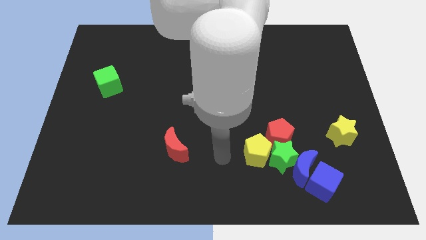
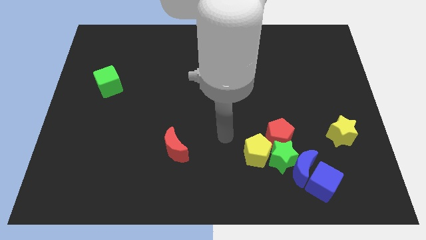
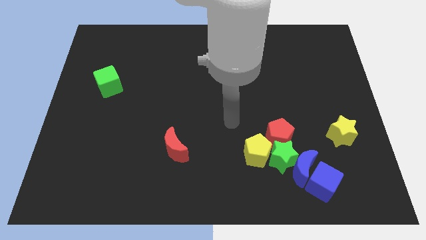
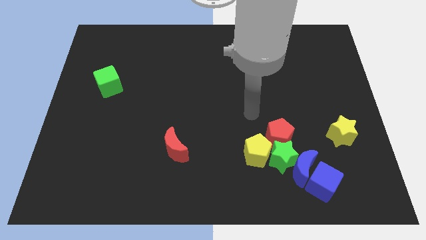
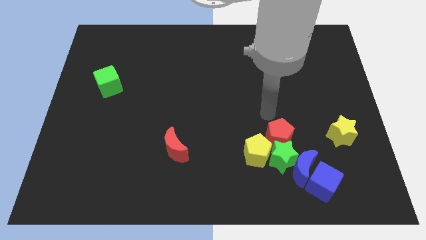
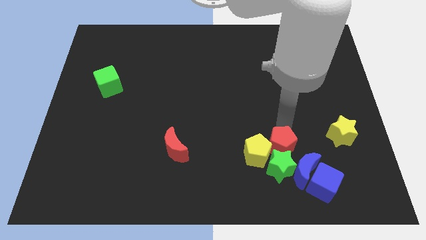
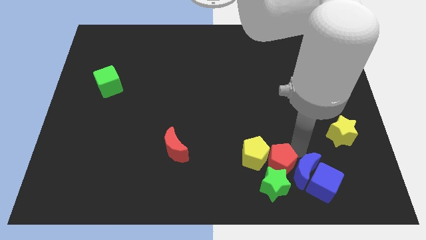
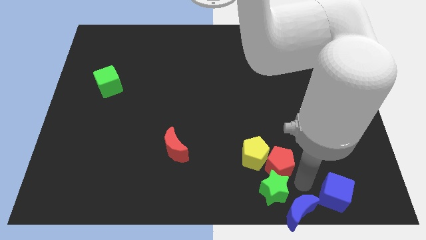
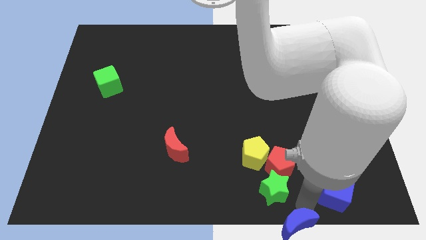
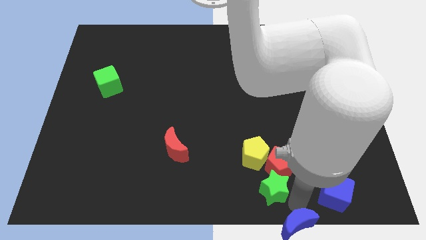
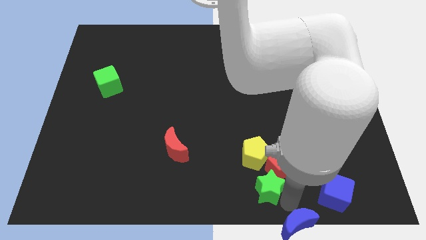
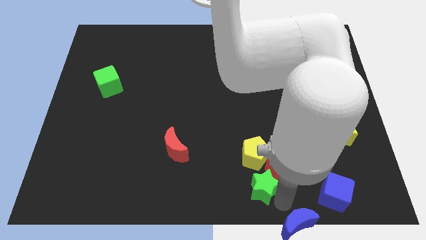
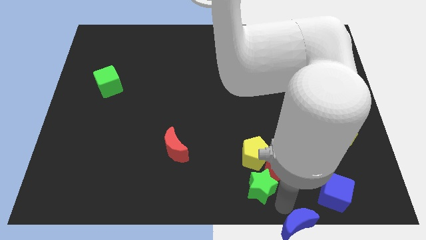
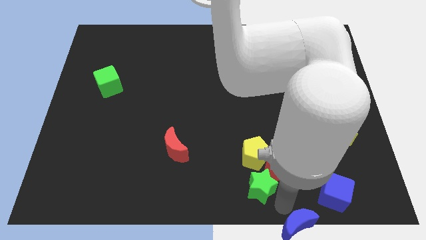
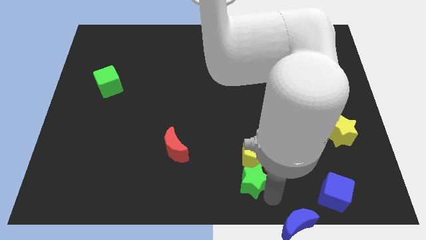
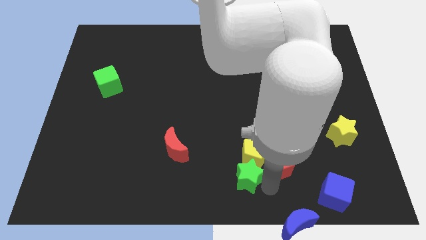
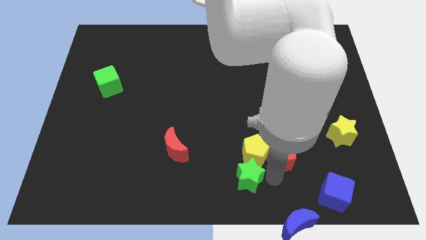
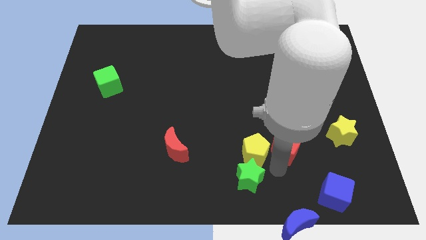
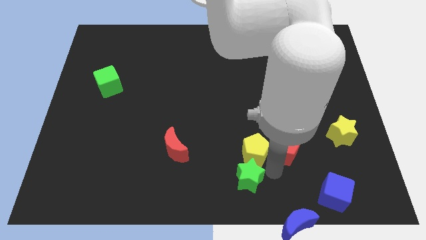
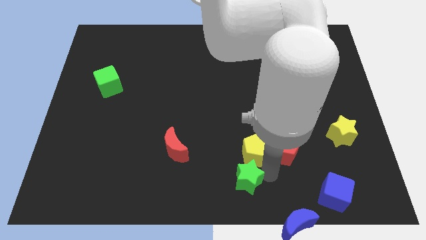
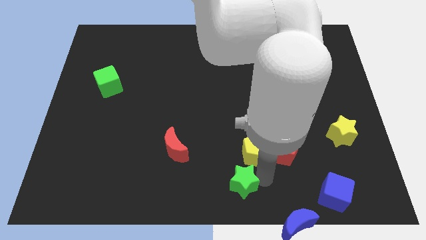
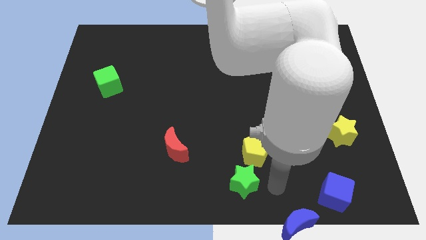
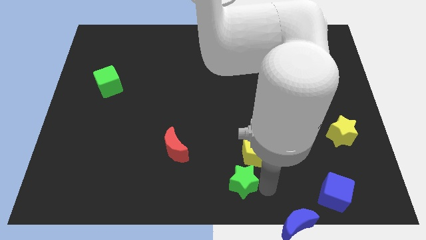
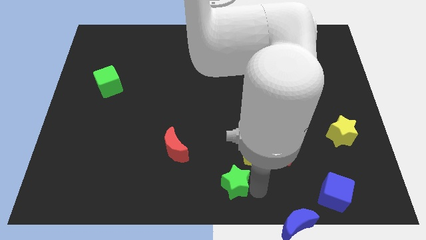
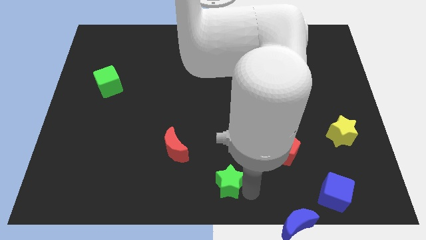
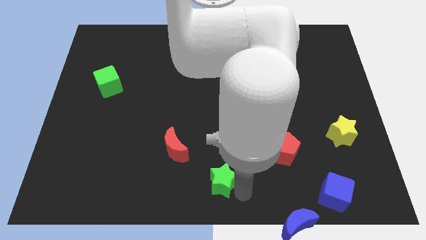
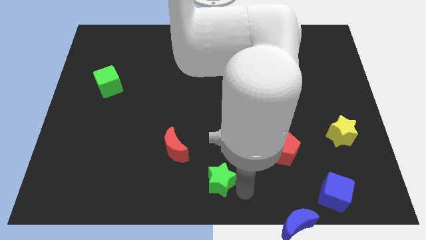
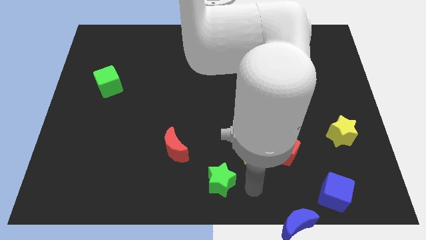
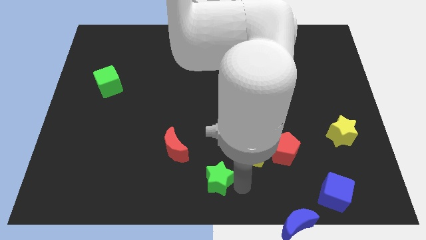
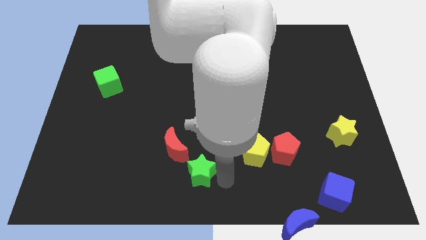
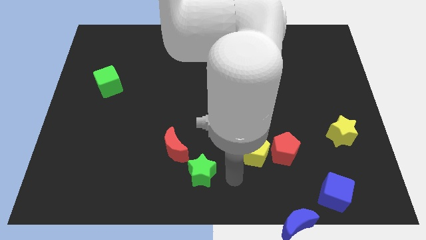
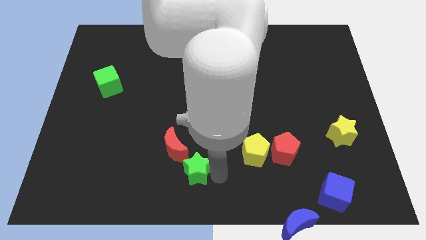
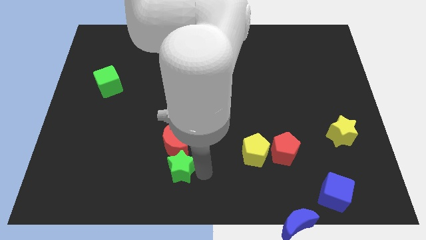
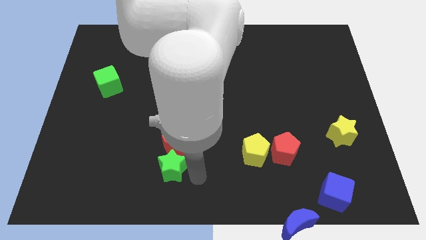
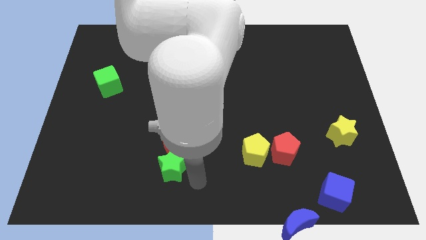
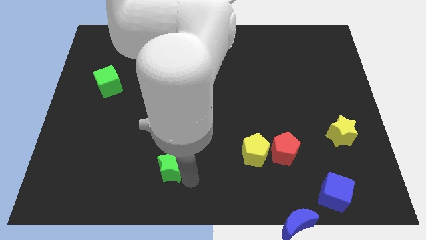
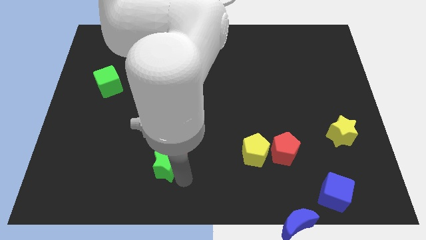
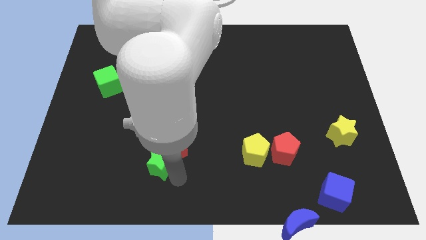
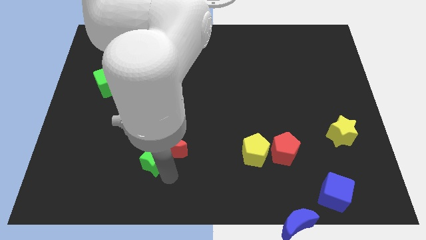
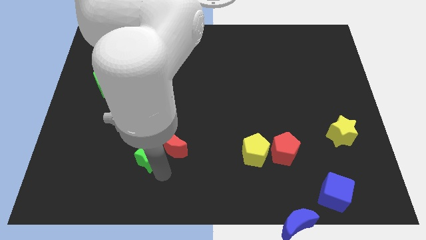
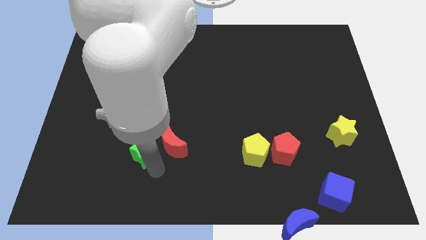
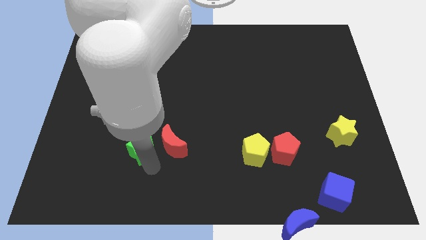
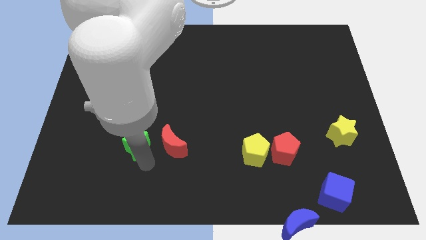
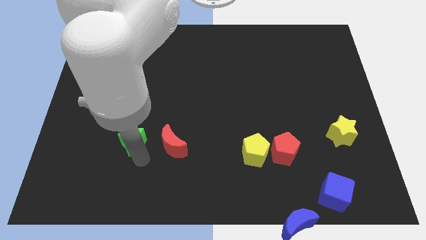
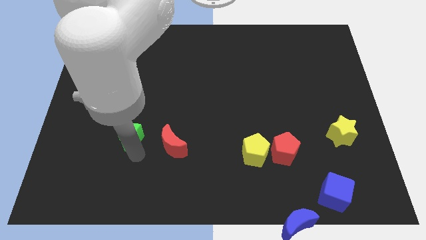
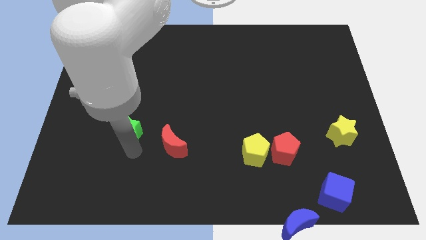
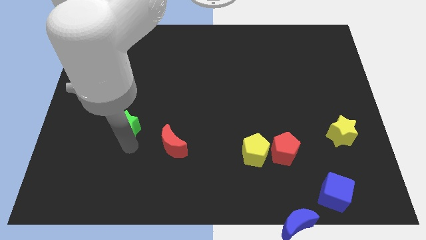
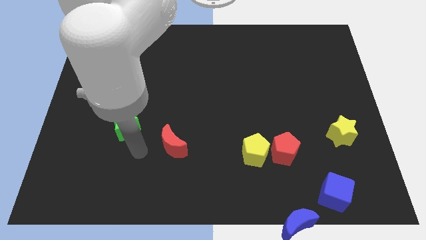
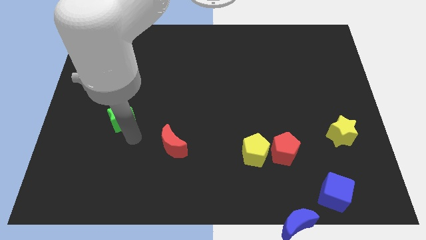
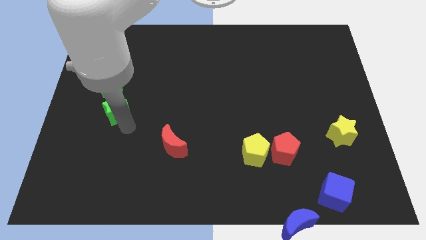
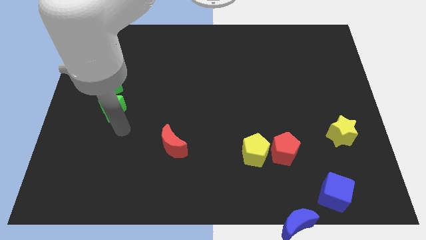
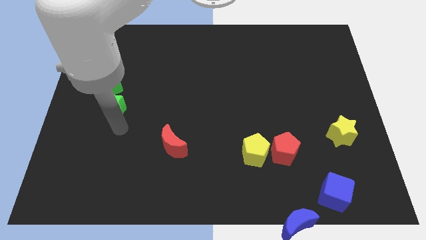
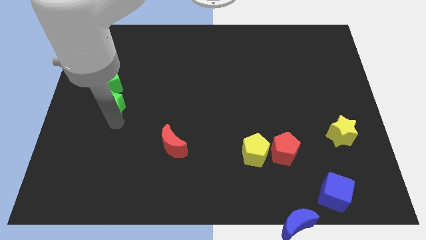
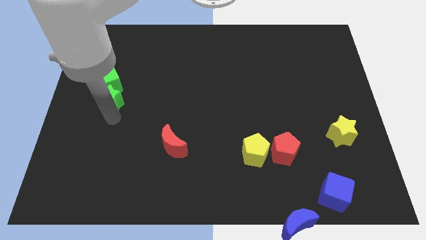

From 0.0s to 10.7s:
push the green star towards the green cube

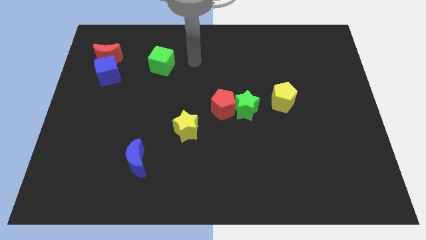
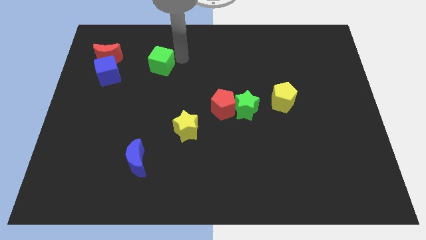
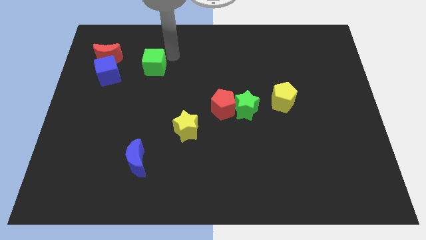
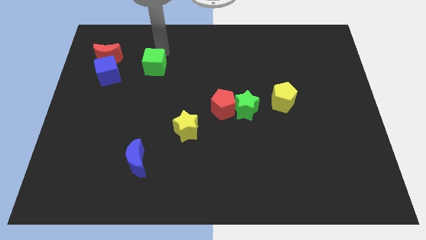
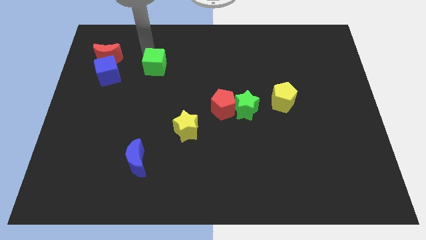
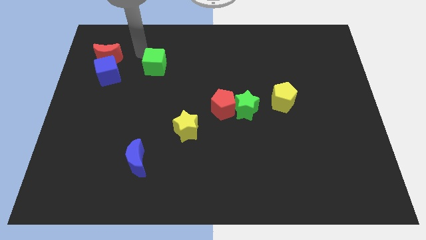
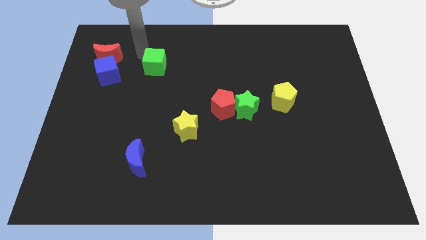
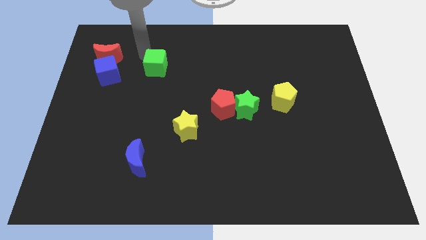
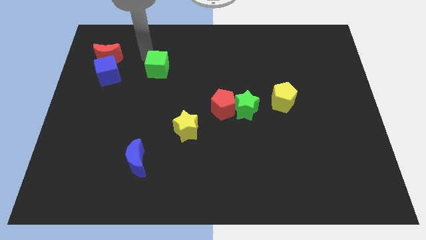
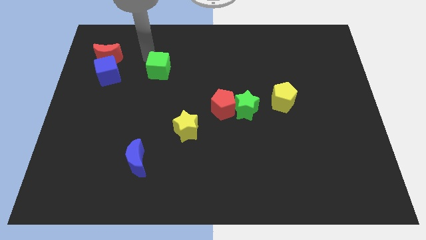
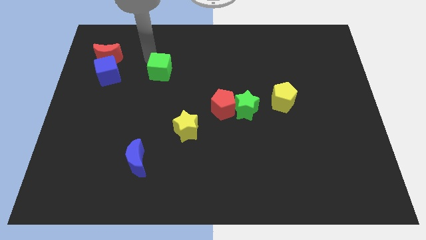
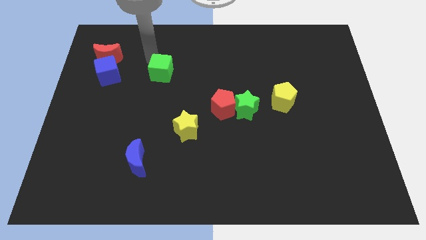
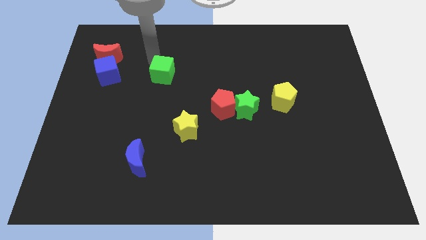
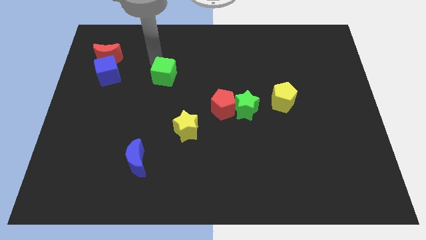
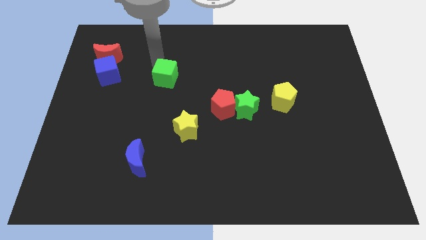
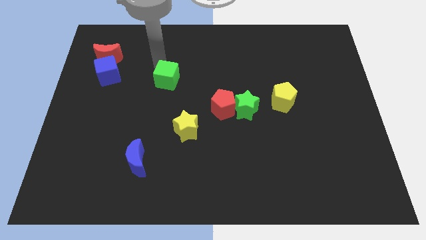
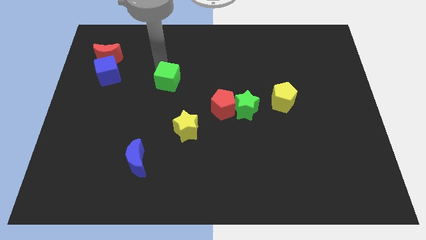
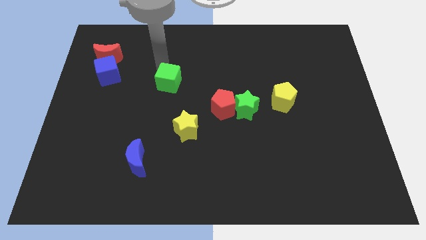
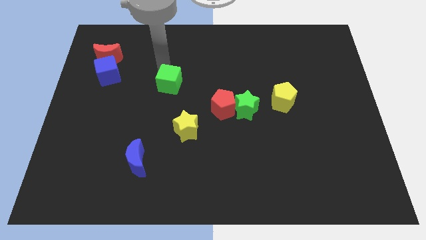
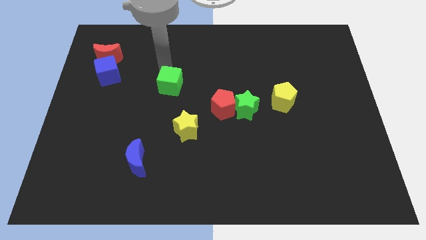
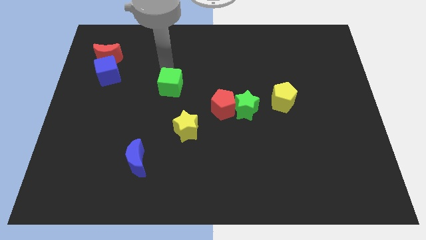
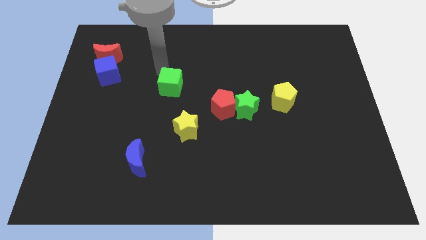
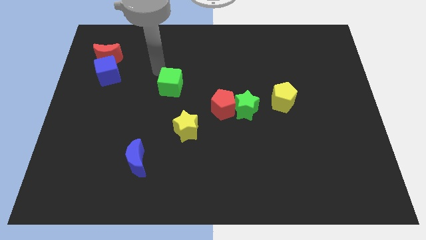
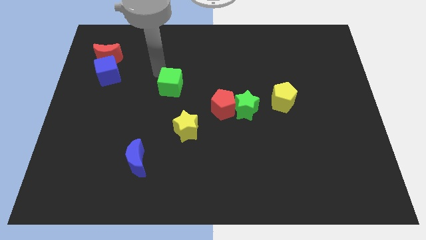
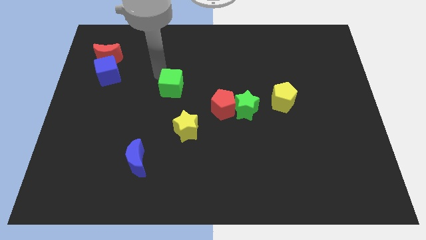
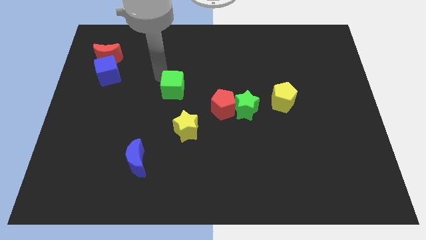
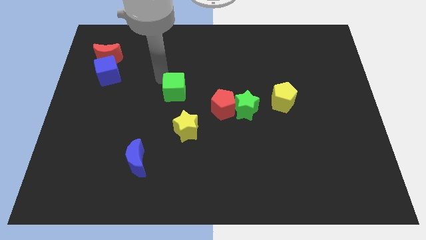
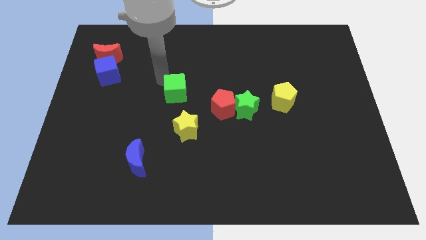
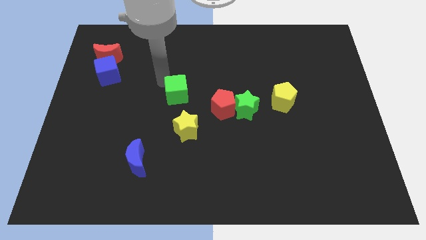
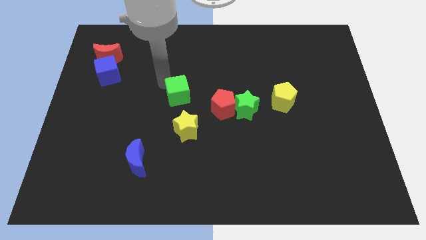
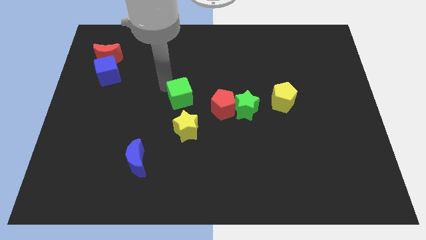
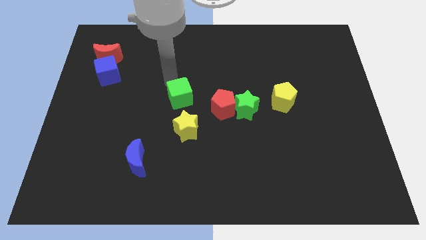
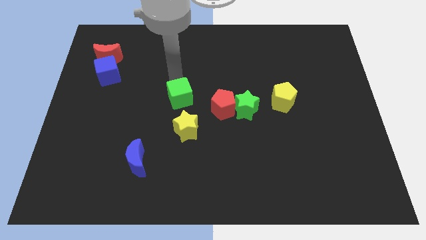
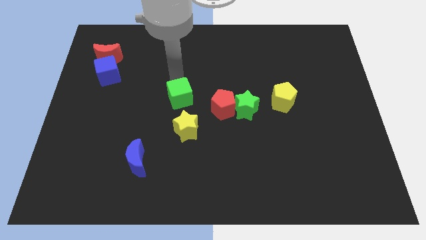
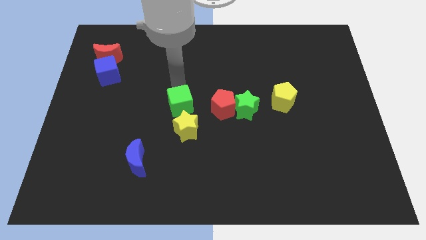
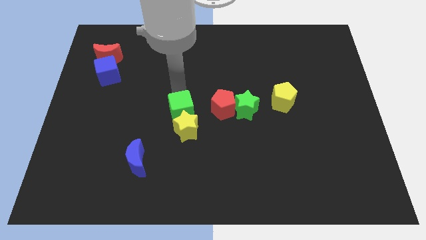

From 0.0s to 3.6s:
put the green cube close to the yellow star
